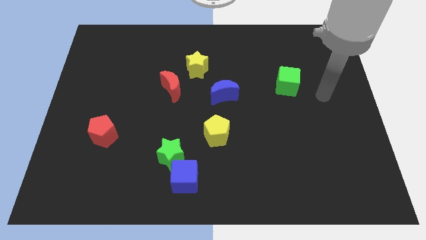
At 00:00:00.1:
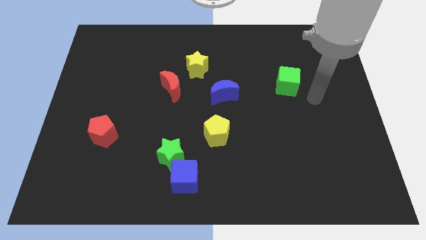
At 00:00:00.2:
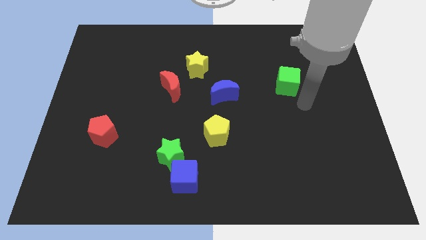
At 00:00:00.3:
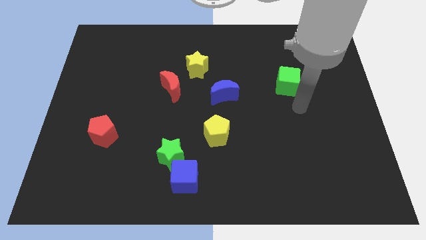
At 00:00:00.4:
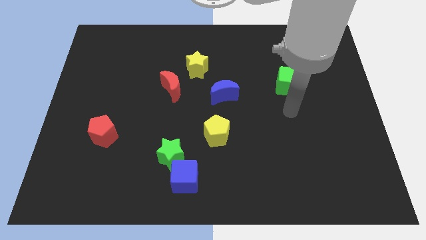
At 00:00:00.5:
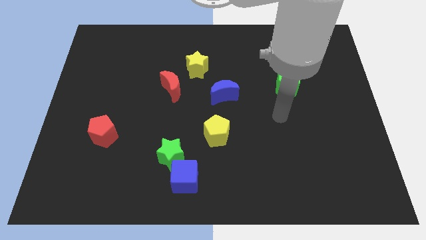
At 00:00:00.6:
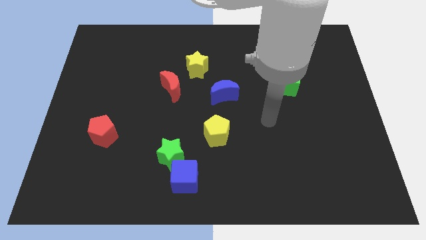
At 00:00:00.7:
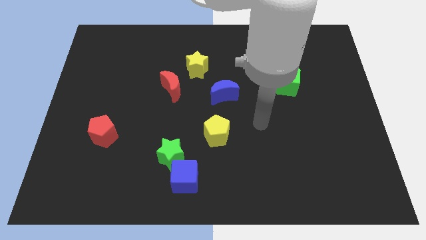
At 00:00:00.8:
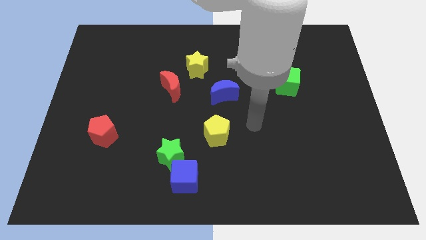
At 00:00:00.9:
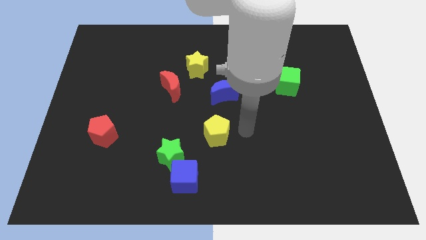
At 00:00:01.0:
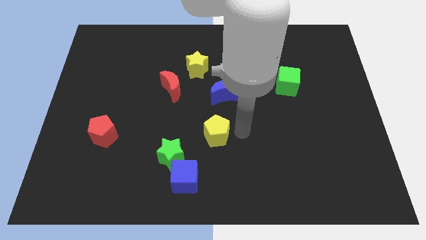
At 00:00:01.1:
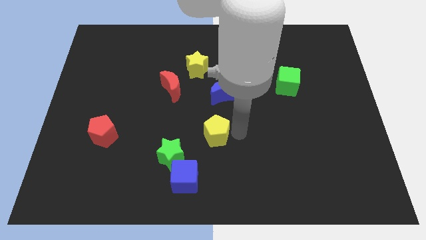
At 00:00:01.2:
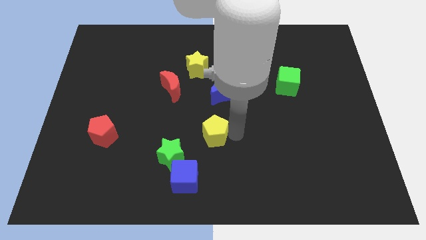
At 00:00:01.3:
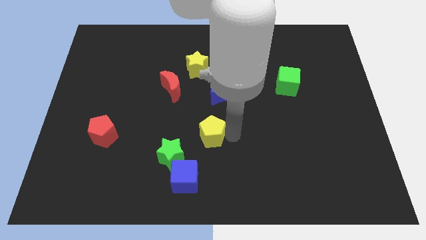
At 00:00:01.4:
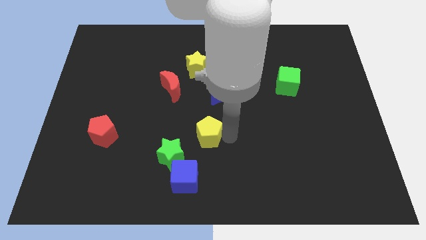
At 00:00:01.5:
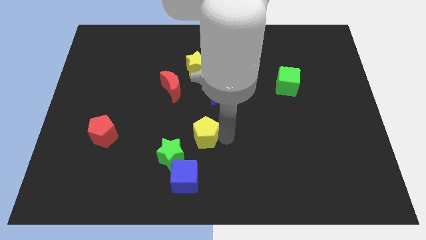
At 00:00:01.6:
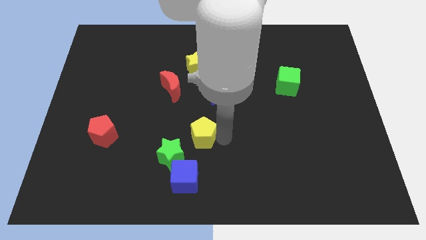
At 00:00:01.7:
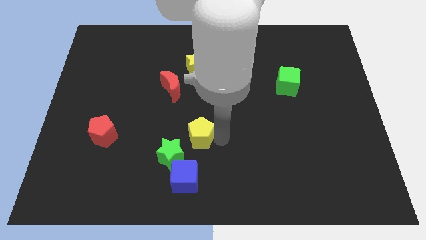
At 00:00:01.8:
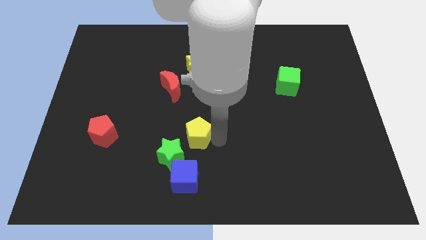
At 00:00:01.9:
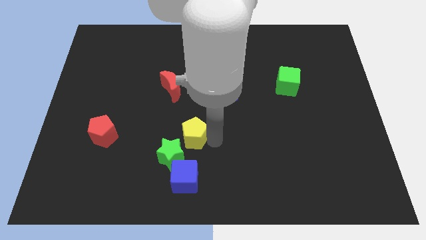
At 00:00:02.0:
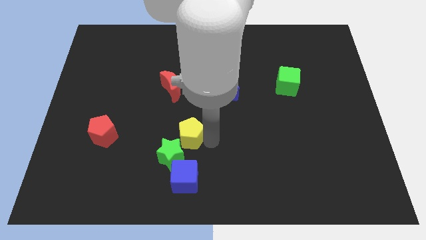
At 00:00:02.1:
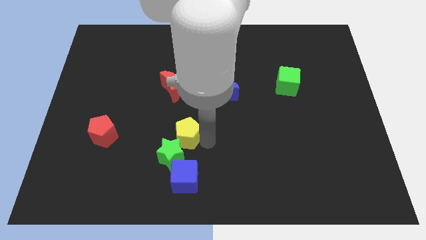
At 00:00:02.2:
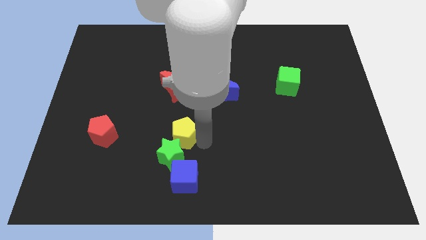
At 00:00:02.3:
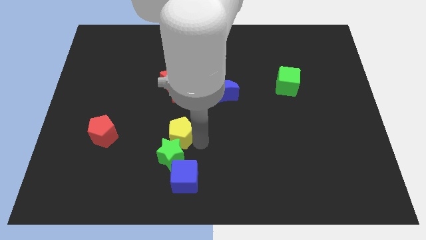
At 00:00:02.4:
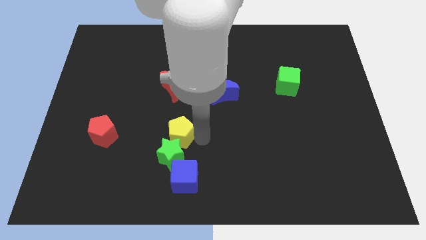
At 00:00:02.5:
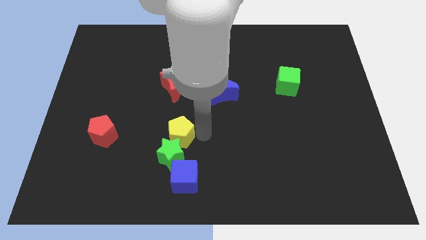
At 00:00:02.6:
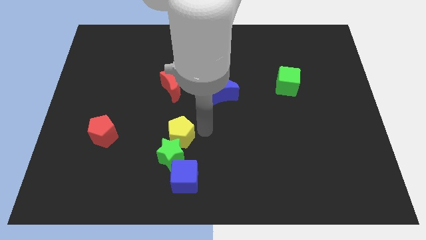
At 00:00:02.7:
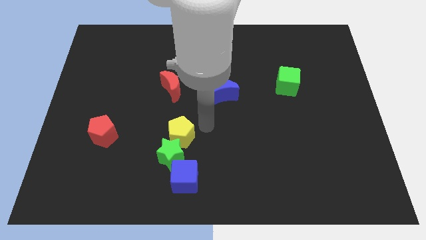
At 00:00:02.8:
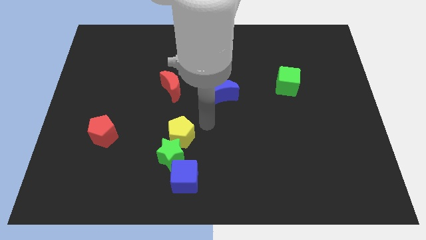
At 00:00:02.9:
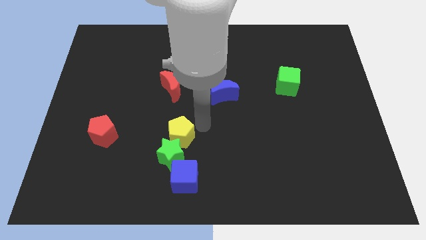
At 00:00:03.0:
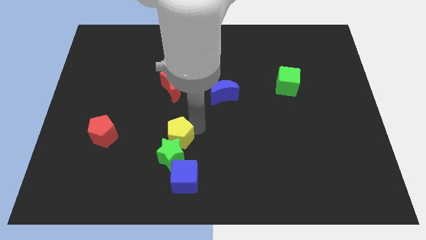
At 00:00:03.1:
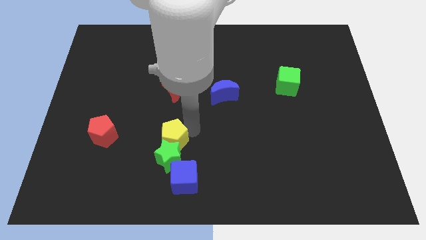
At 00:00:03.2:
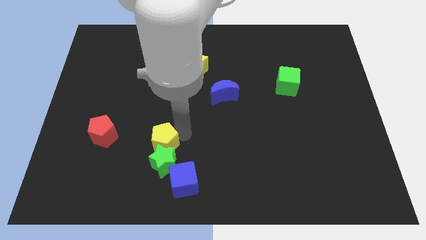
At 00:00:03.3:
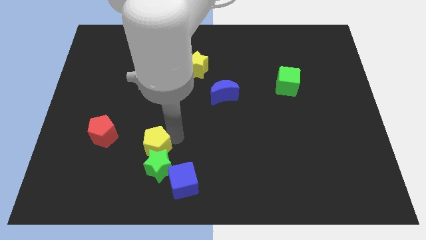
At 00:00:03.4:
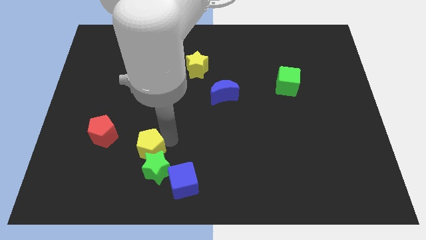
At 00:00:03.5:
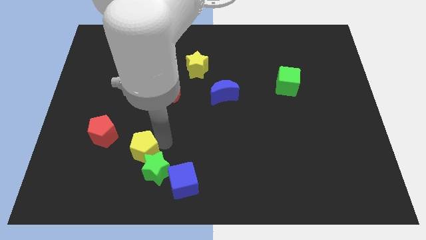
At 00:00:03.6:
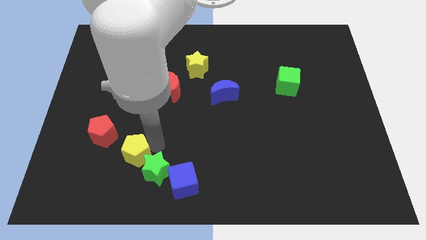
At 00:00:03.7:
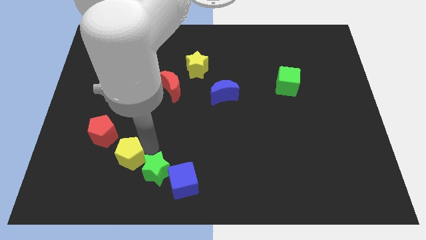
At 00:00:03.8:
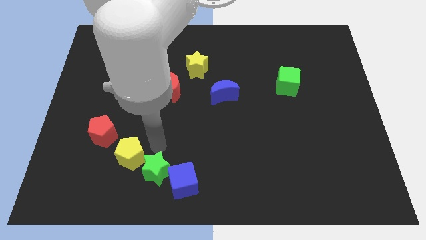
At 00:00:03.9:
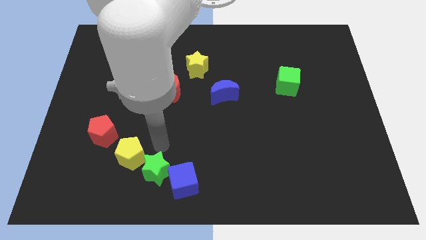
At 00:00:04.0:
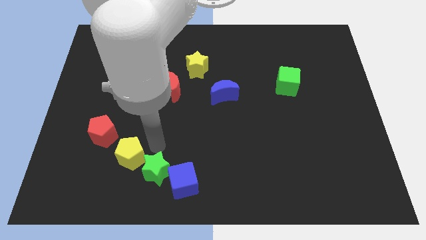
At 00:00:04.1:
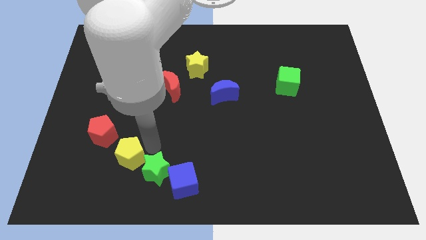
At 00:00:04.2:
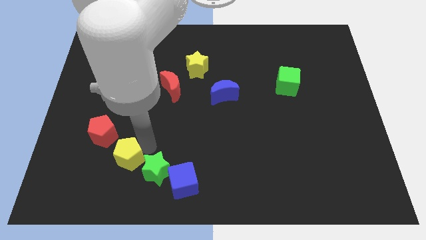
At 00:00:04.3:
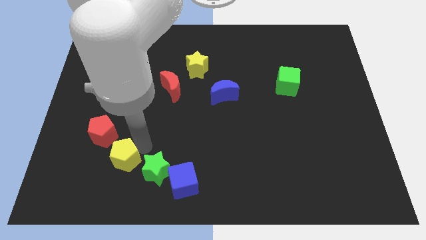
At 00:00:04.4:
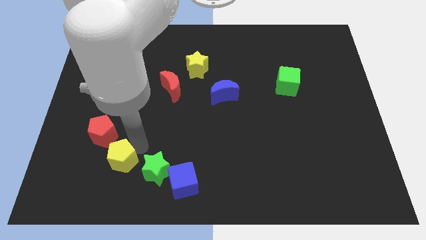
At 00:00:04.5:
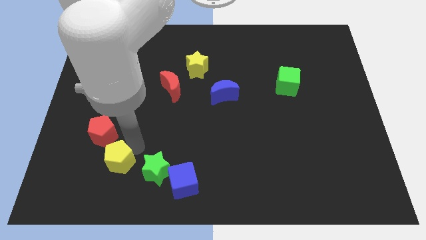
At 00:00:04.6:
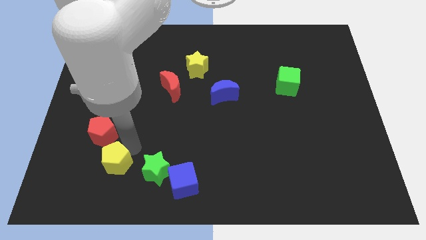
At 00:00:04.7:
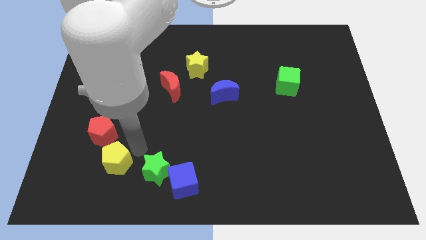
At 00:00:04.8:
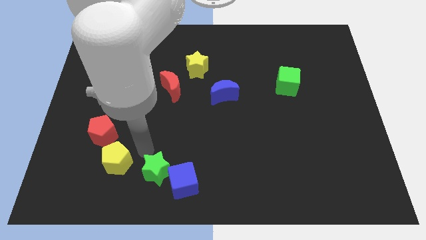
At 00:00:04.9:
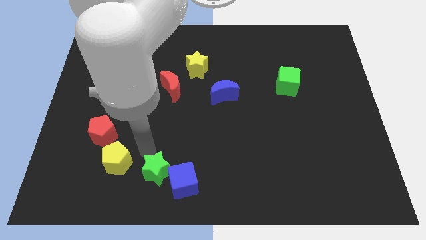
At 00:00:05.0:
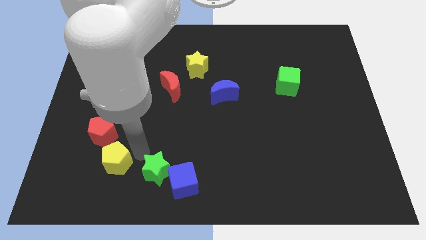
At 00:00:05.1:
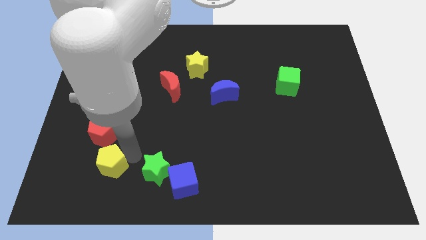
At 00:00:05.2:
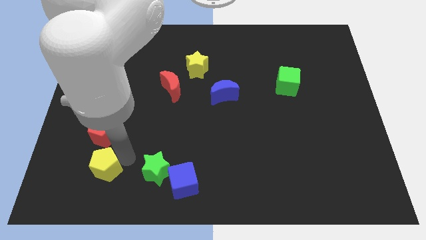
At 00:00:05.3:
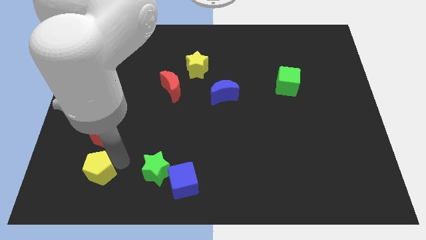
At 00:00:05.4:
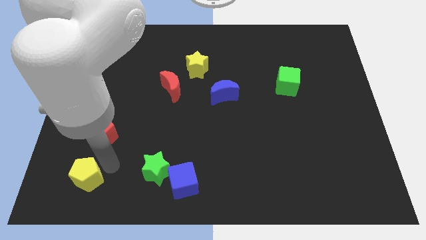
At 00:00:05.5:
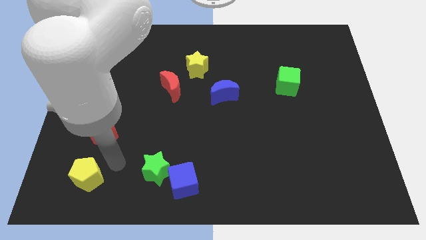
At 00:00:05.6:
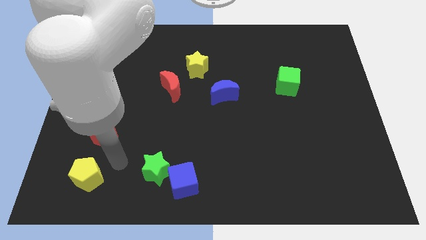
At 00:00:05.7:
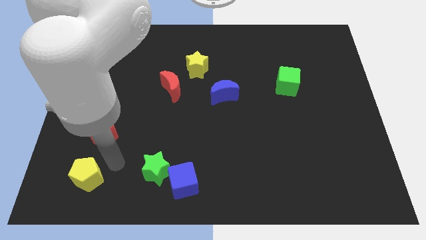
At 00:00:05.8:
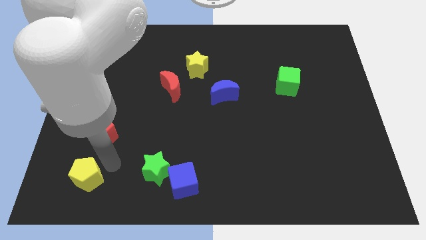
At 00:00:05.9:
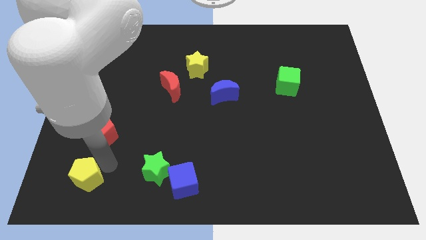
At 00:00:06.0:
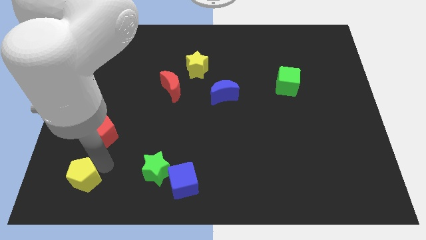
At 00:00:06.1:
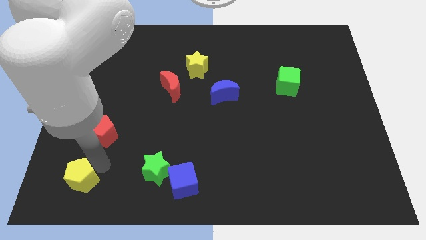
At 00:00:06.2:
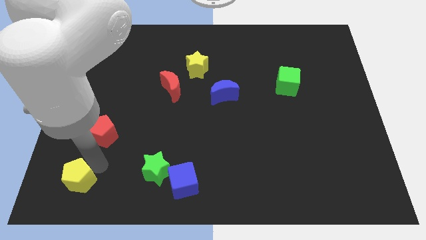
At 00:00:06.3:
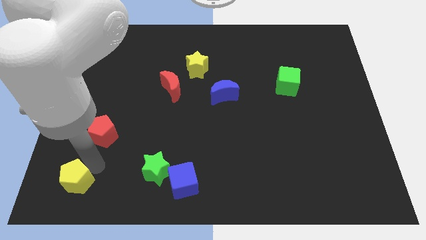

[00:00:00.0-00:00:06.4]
push the yellow pentagon to the bottom left
